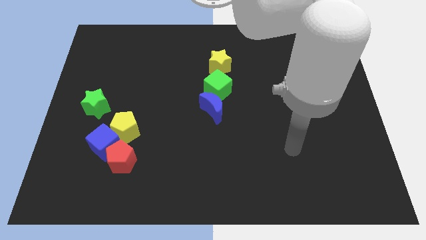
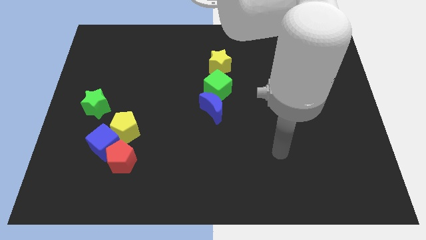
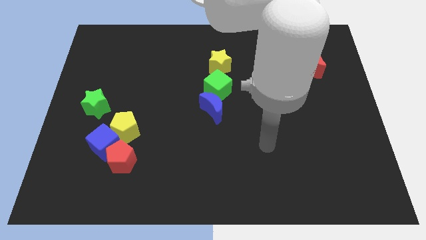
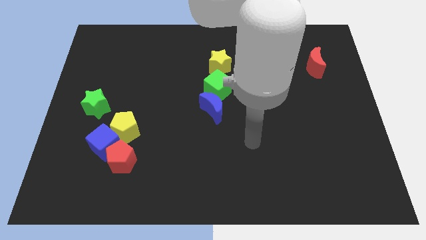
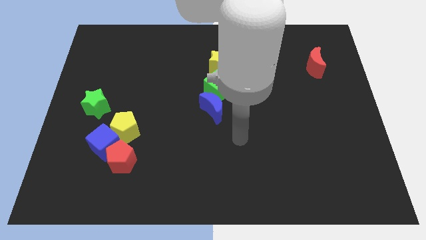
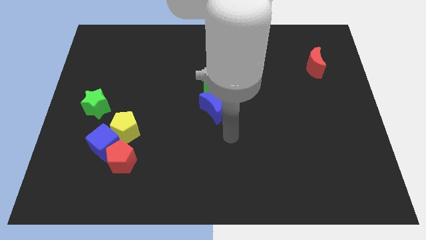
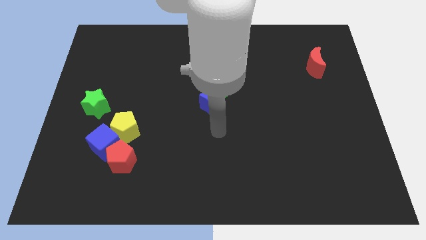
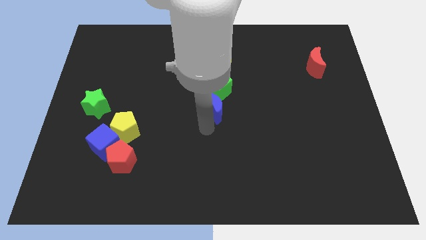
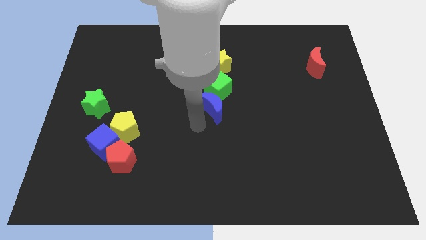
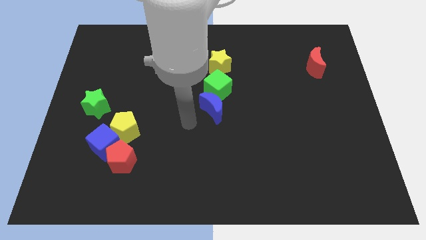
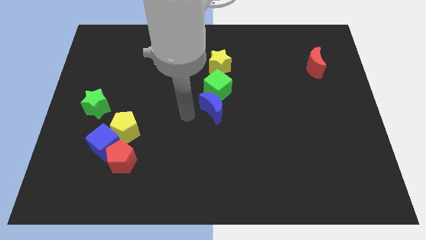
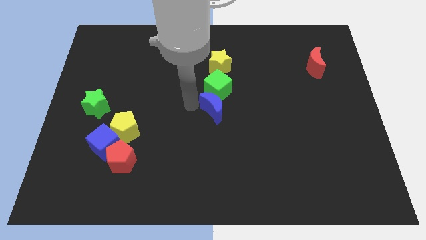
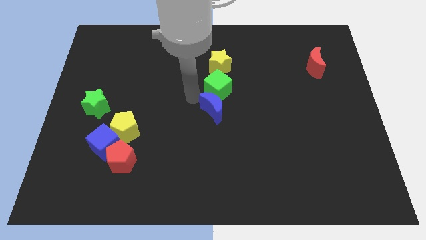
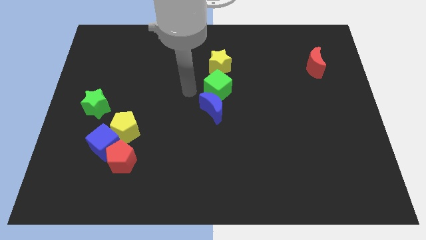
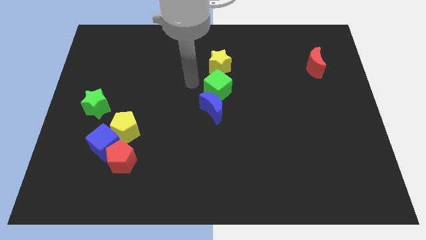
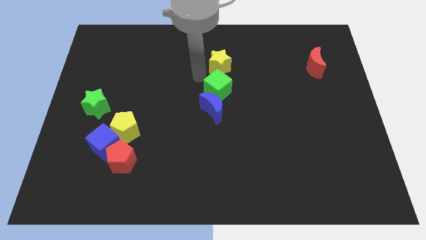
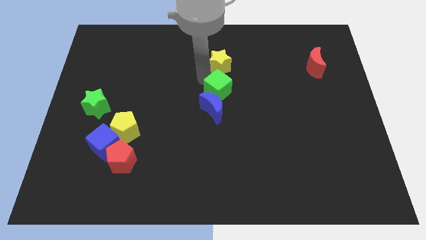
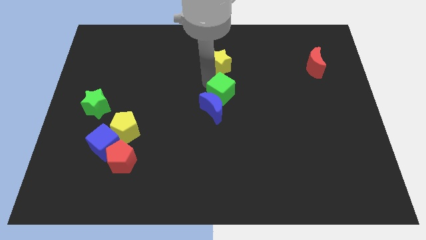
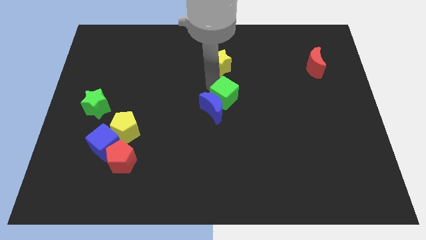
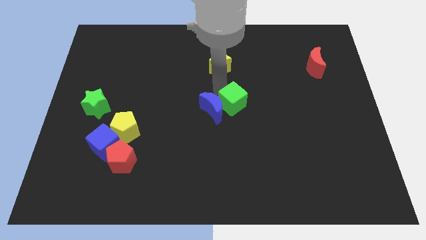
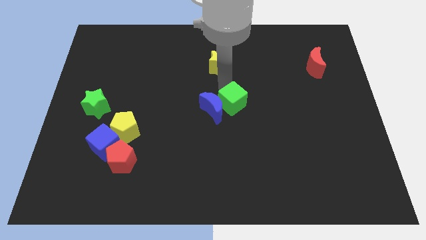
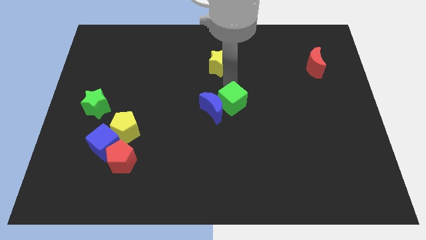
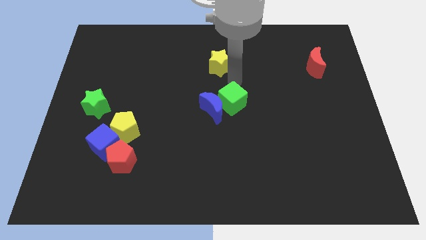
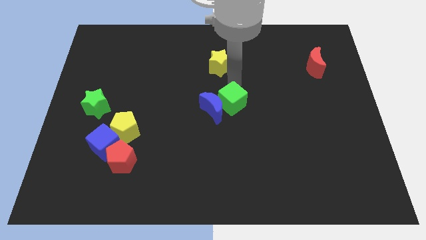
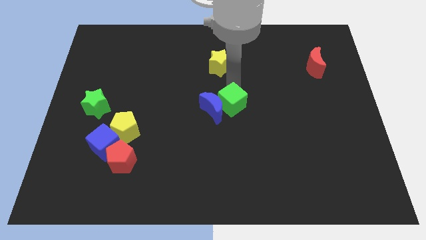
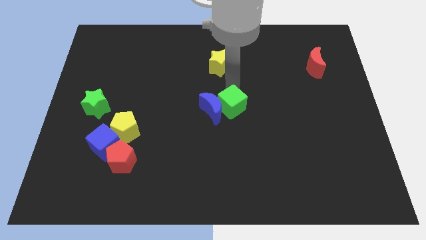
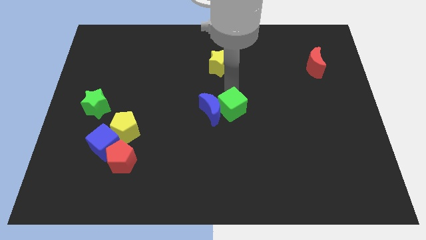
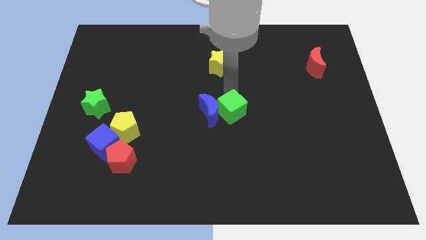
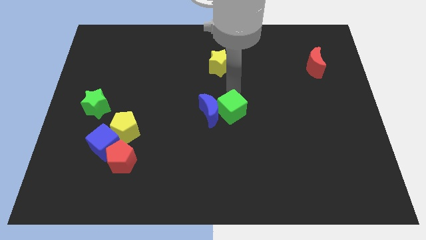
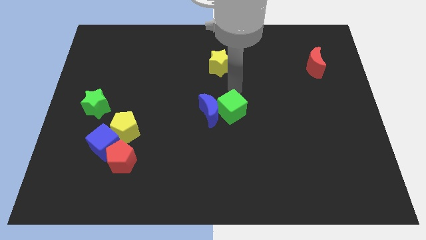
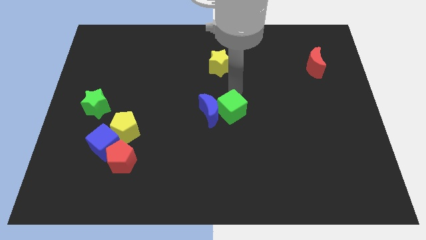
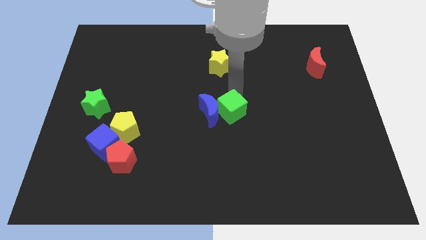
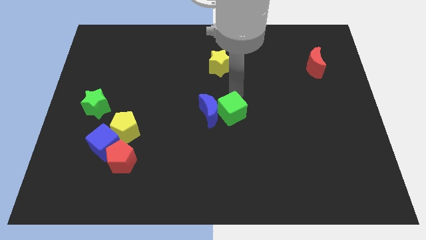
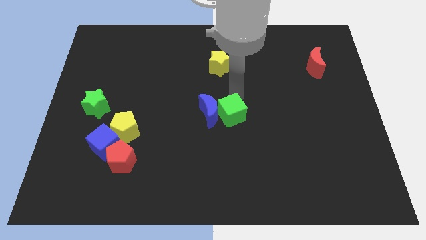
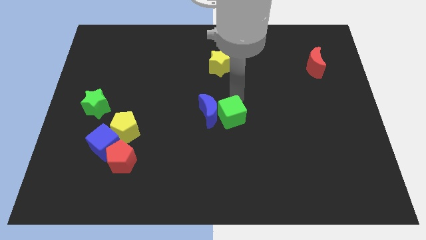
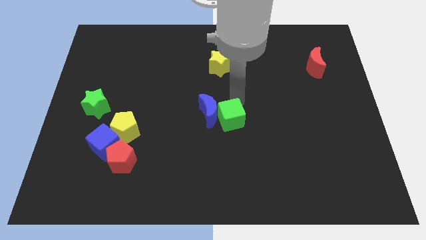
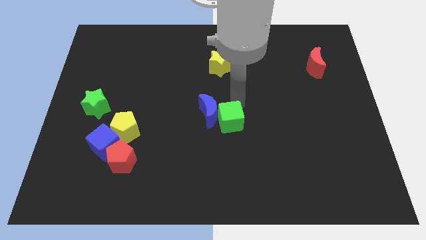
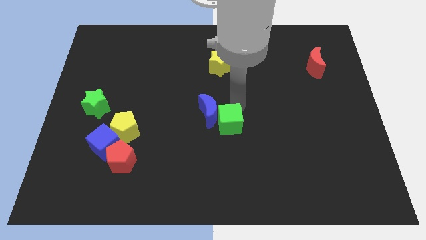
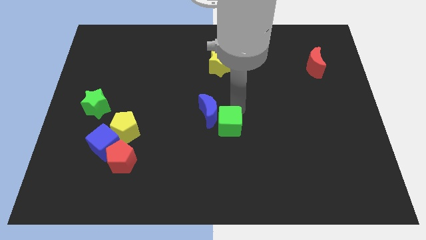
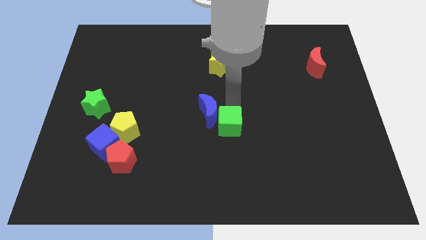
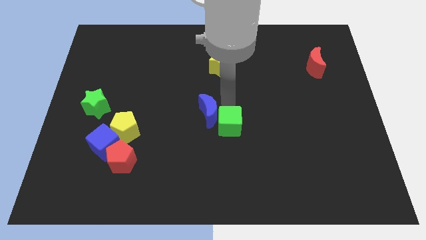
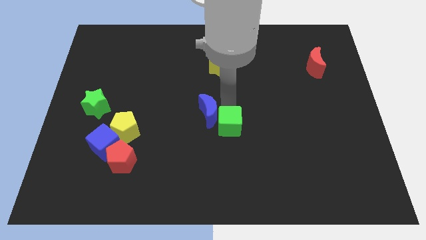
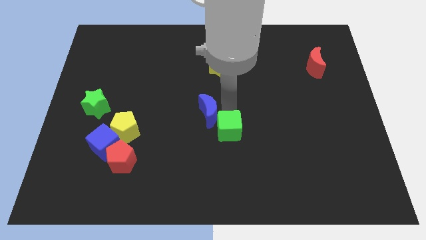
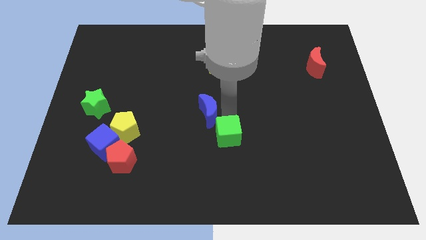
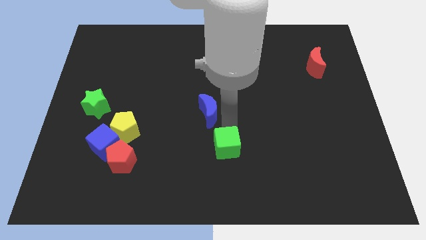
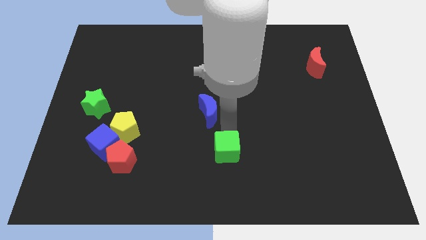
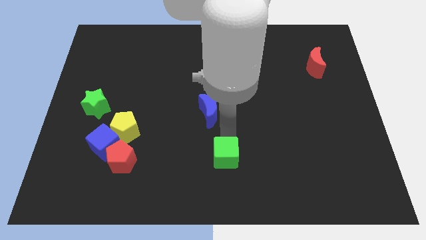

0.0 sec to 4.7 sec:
put the green cube to the bottom side

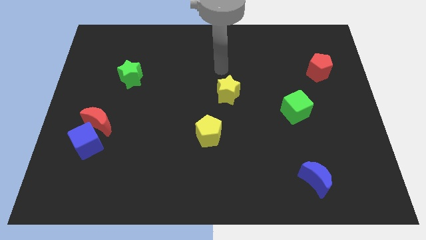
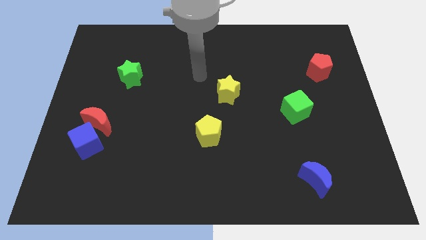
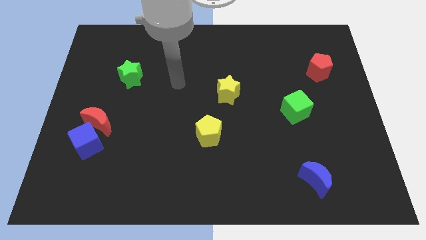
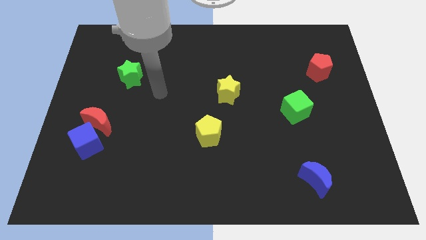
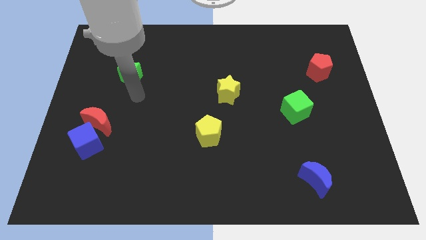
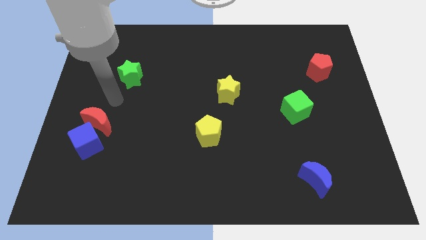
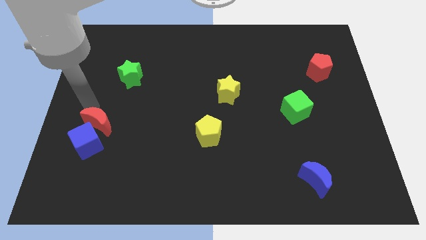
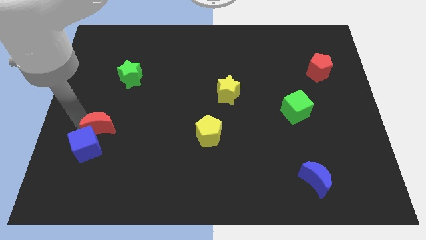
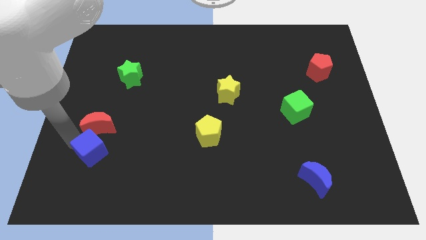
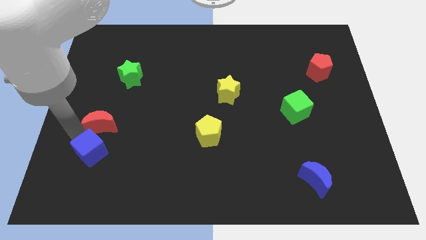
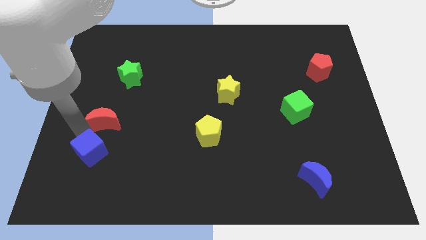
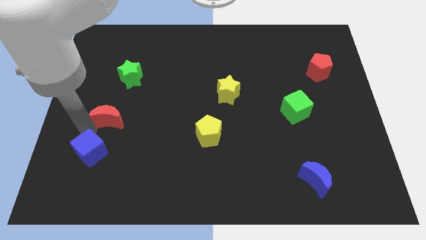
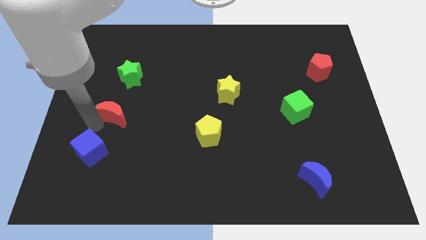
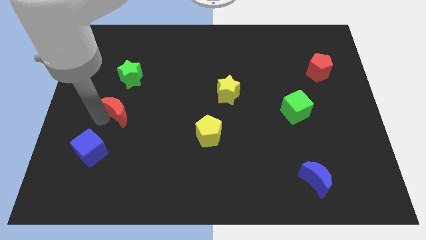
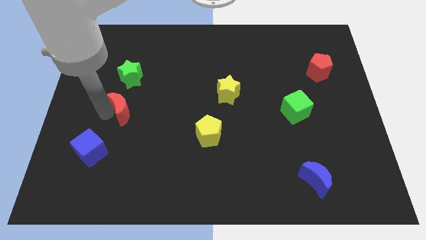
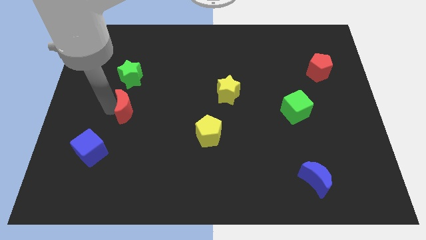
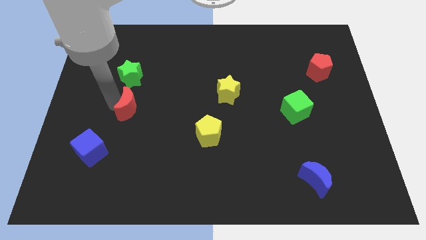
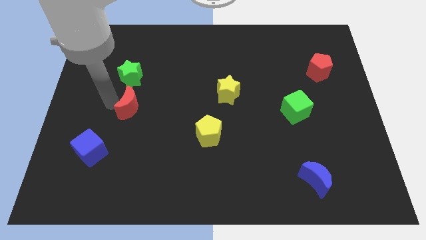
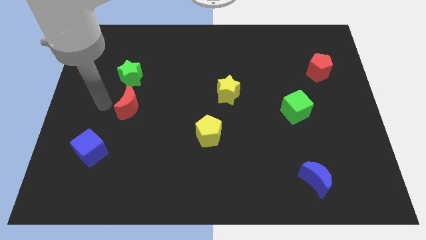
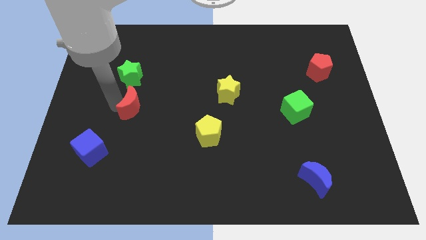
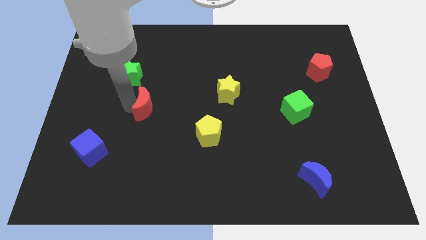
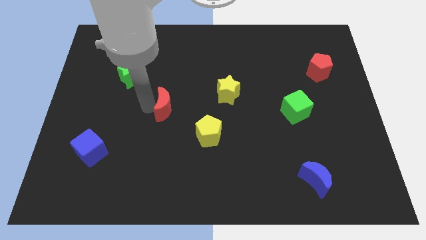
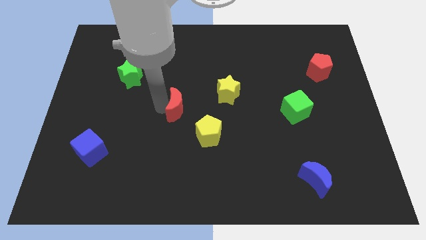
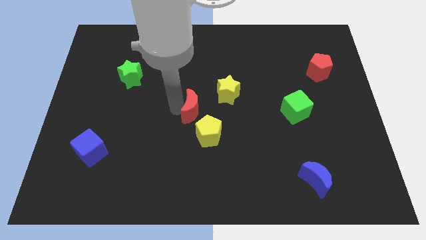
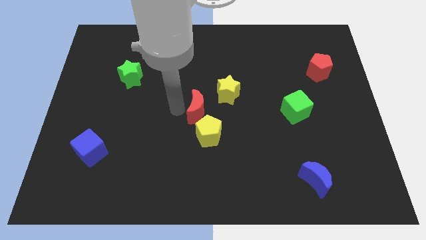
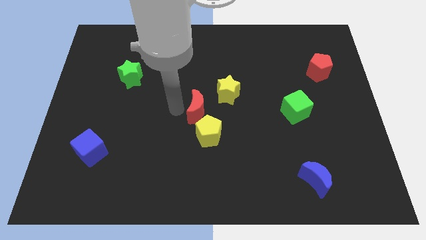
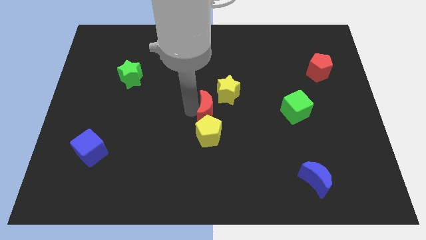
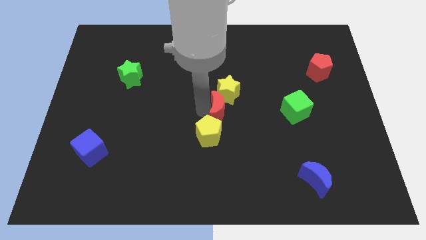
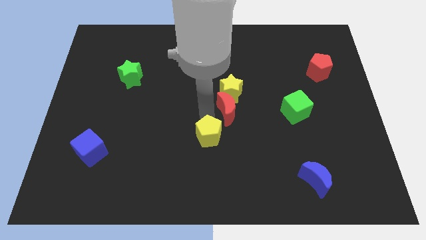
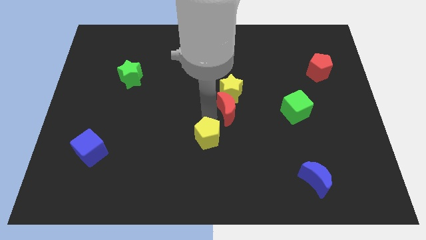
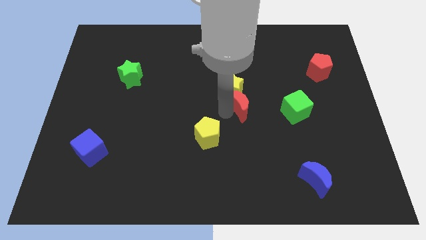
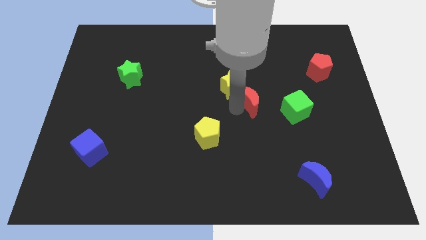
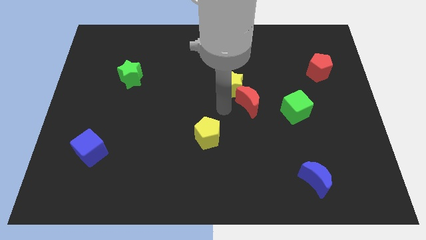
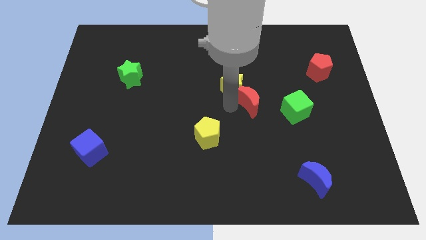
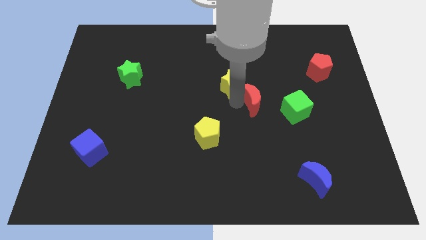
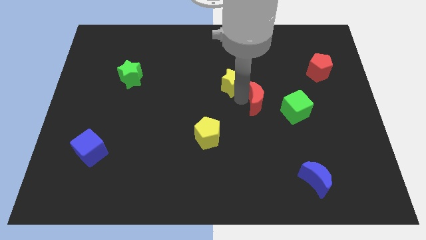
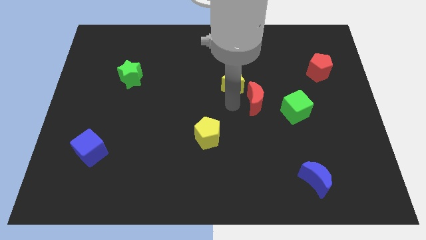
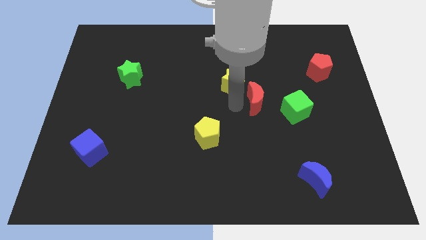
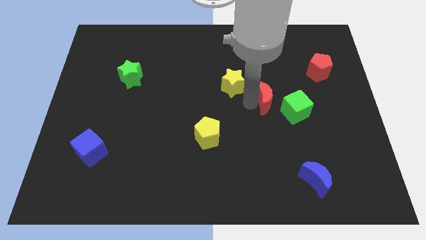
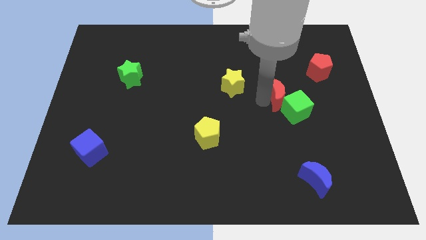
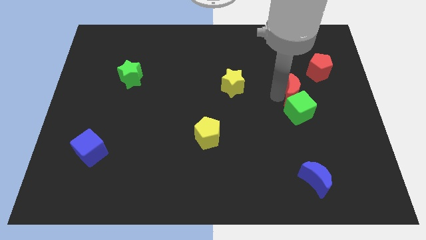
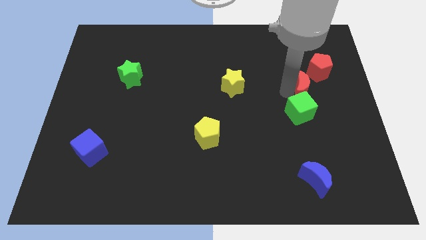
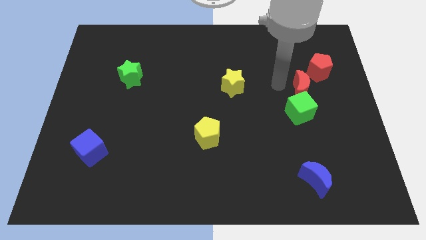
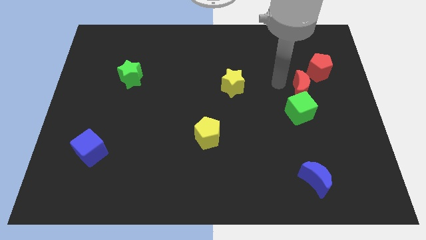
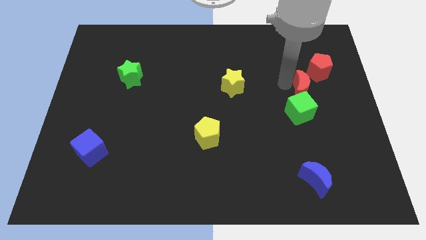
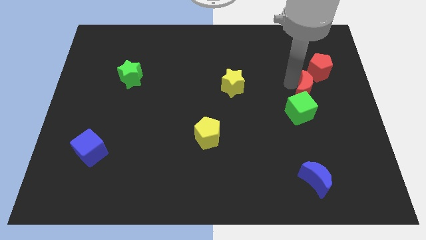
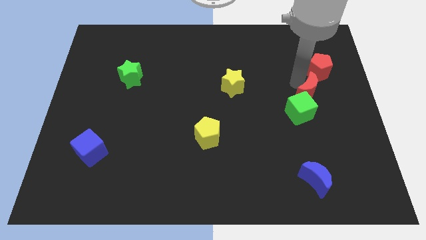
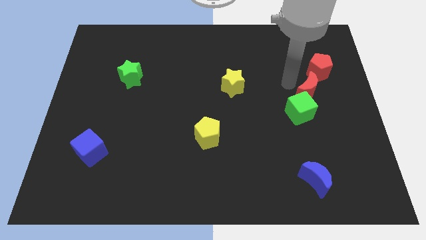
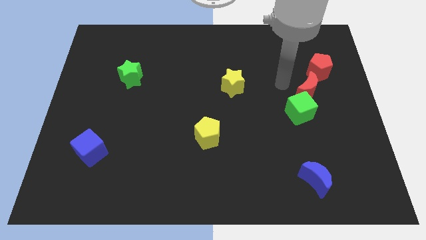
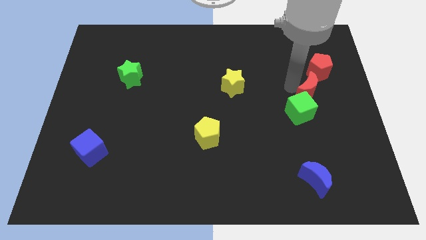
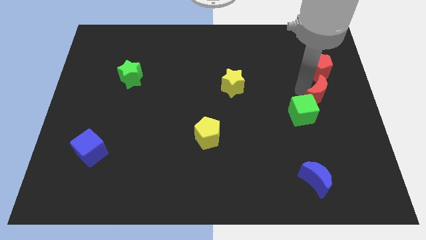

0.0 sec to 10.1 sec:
put the red moon to the right side
